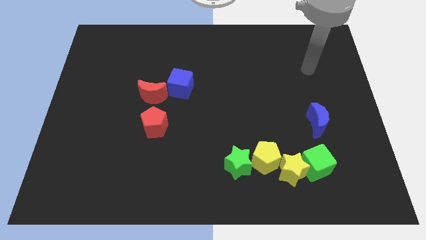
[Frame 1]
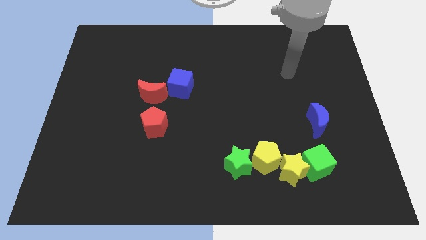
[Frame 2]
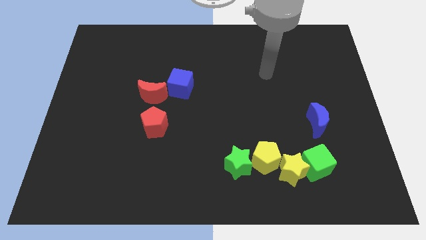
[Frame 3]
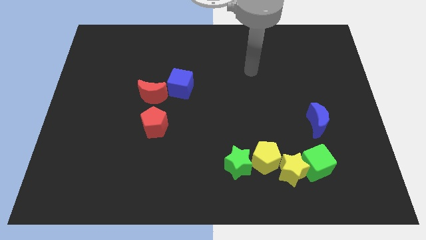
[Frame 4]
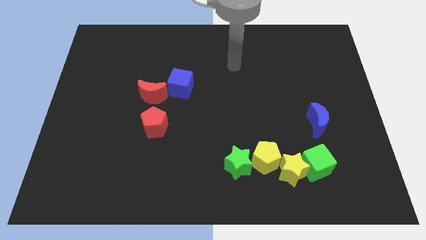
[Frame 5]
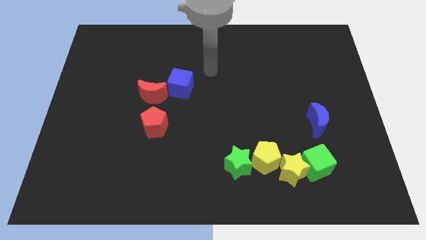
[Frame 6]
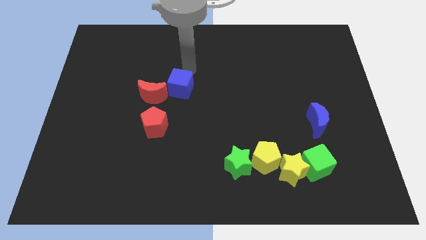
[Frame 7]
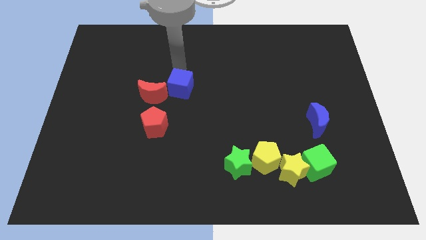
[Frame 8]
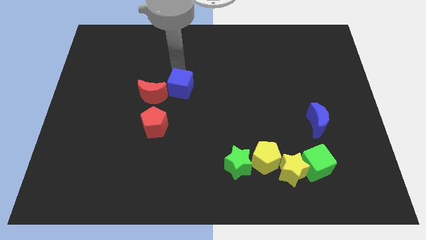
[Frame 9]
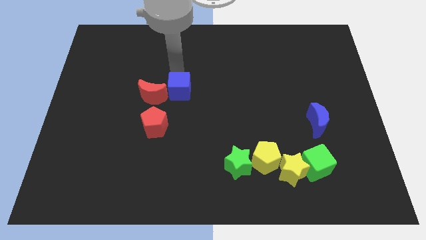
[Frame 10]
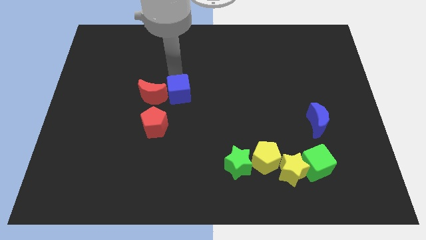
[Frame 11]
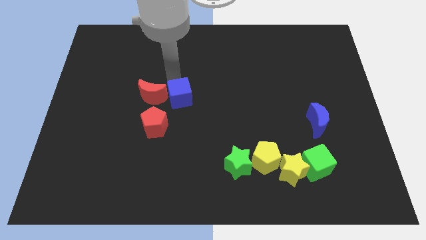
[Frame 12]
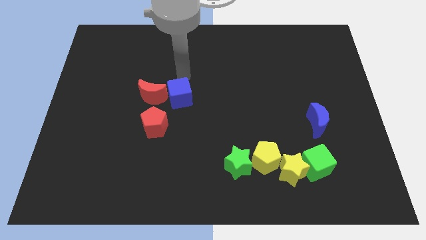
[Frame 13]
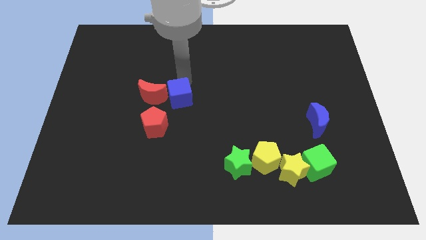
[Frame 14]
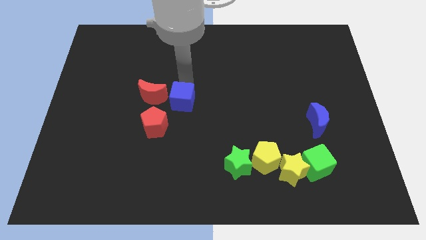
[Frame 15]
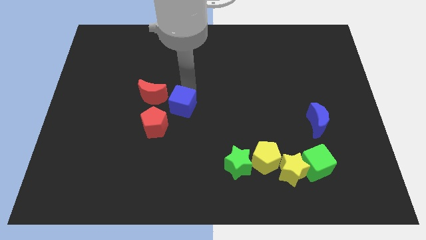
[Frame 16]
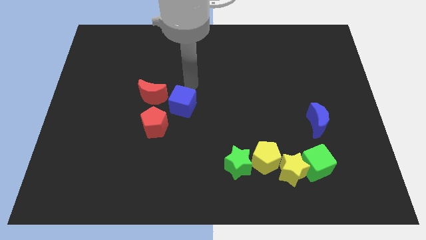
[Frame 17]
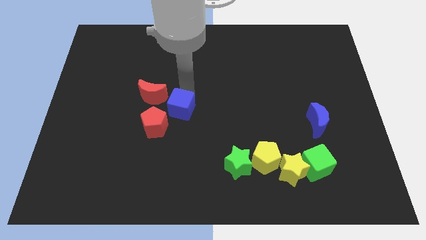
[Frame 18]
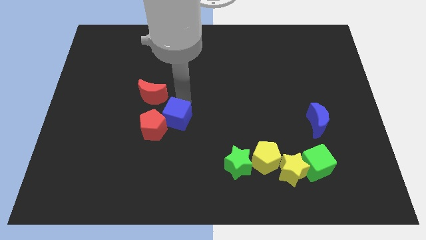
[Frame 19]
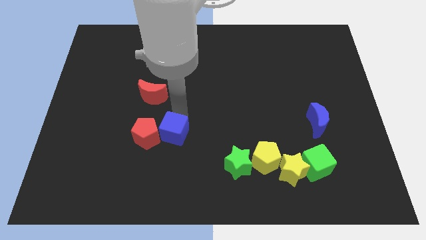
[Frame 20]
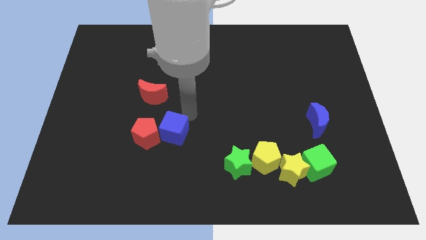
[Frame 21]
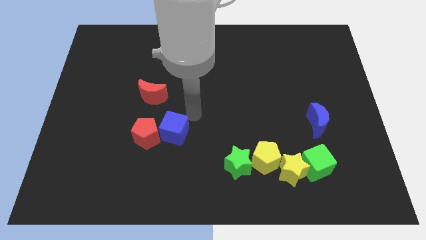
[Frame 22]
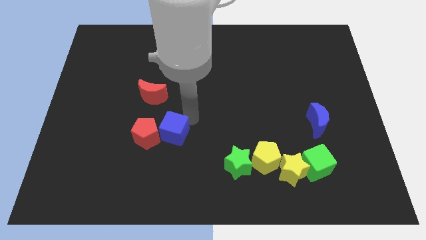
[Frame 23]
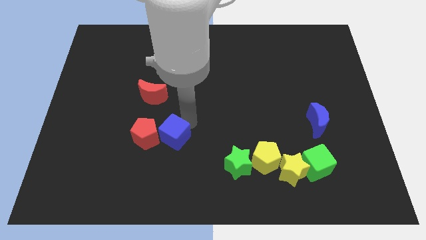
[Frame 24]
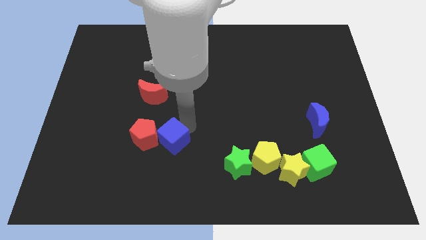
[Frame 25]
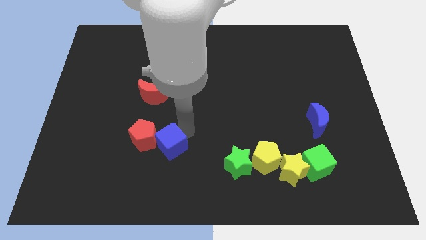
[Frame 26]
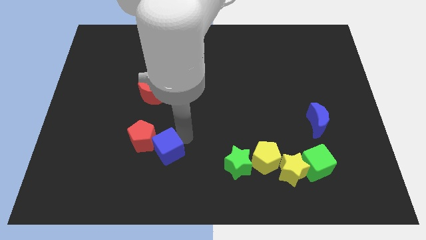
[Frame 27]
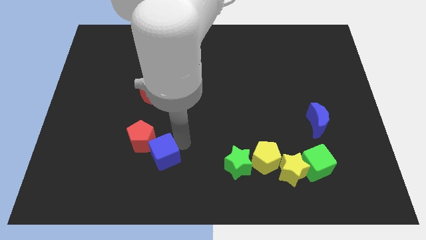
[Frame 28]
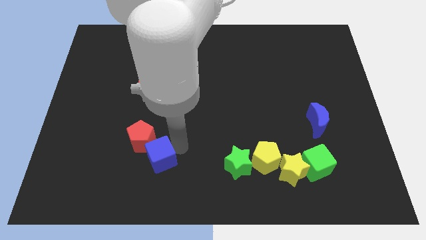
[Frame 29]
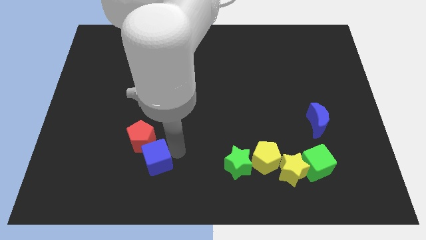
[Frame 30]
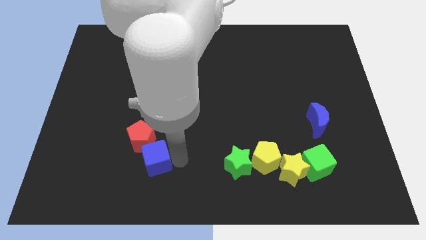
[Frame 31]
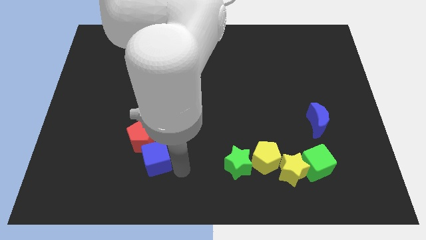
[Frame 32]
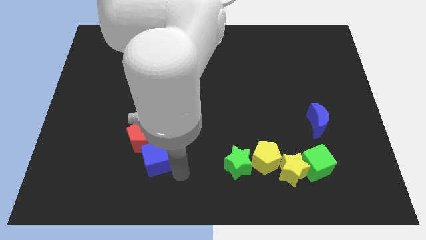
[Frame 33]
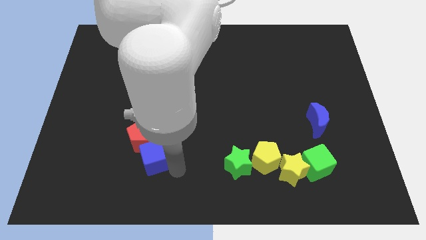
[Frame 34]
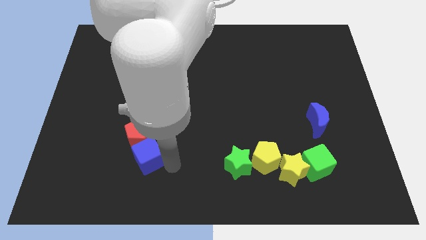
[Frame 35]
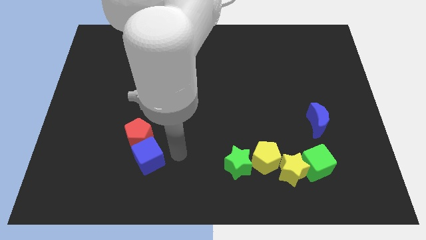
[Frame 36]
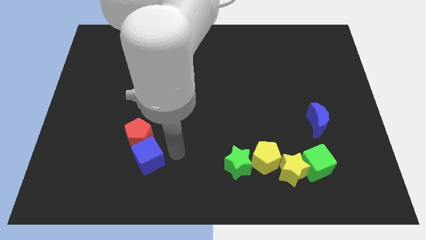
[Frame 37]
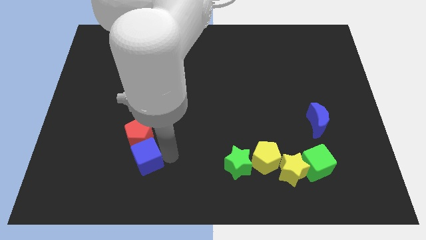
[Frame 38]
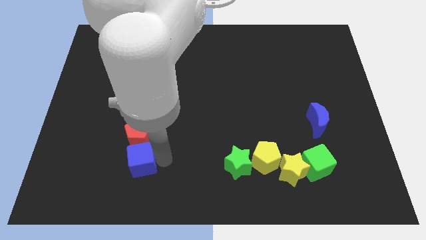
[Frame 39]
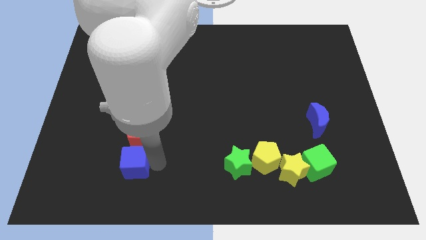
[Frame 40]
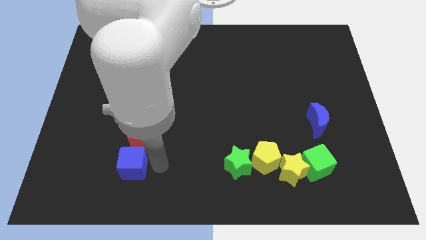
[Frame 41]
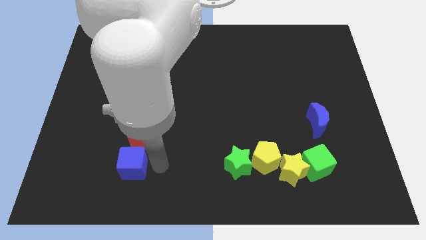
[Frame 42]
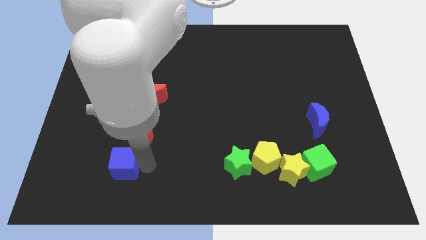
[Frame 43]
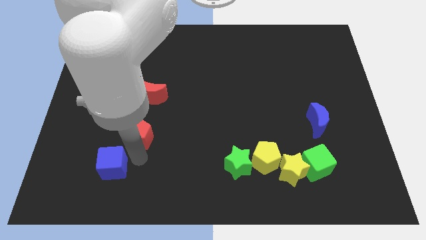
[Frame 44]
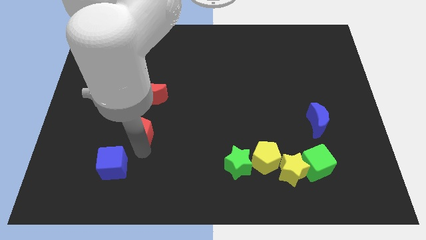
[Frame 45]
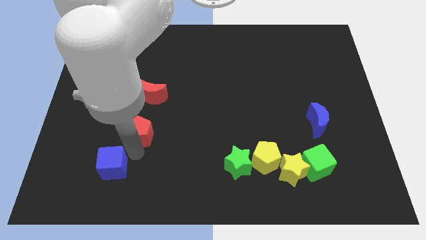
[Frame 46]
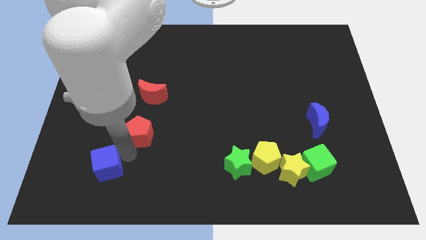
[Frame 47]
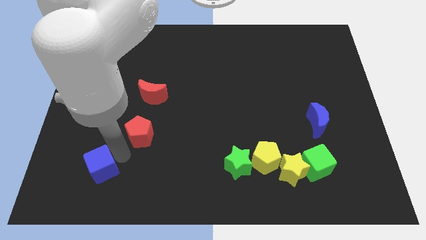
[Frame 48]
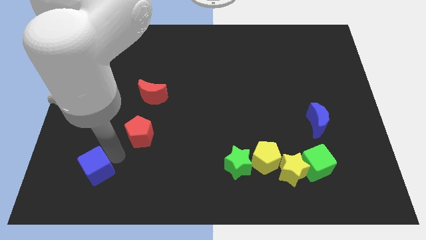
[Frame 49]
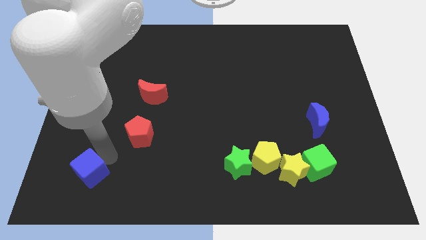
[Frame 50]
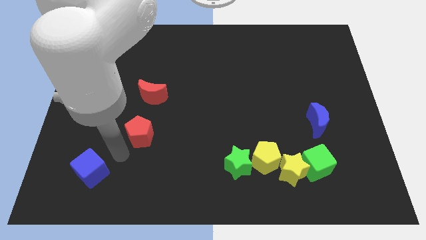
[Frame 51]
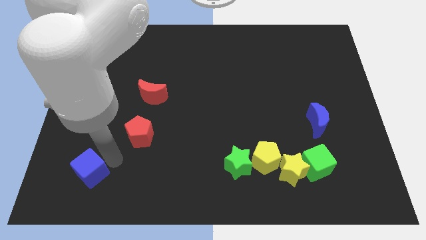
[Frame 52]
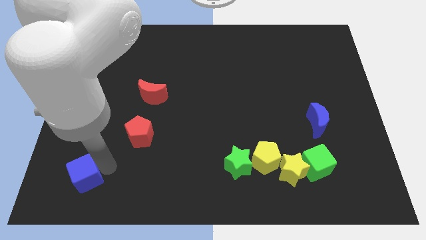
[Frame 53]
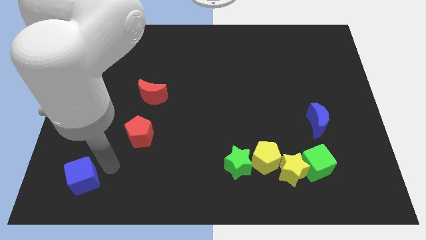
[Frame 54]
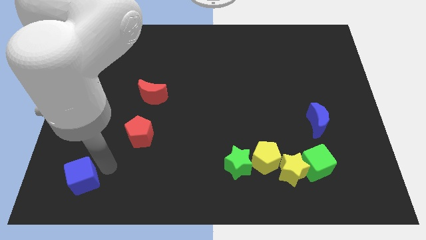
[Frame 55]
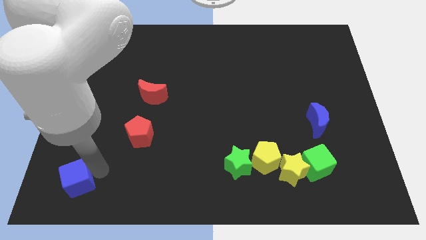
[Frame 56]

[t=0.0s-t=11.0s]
slide the blue cube to the bottom left
